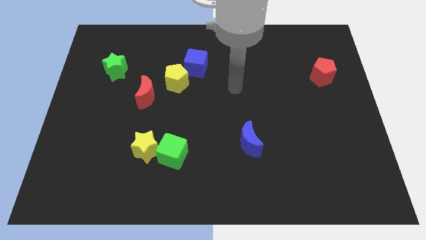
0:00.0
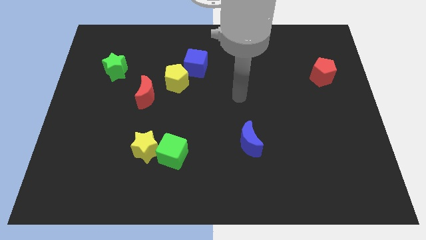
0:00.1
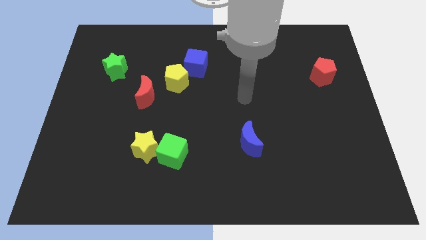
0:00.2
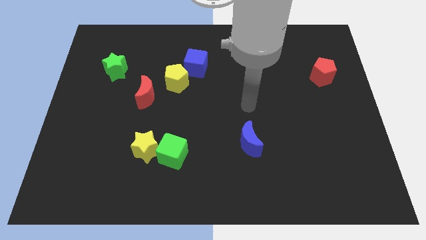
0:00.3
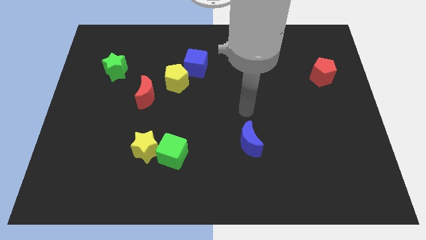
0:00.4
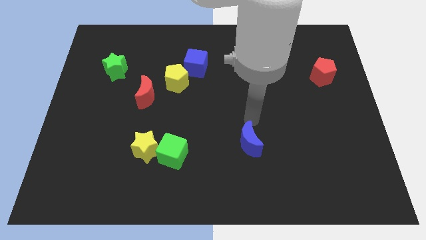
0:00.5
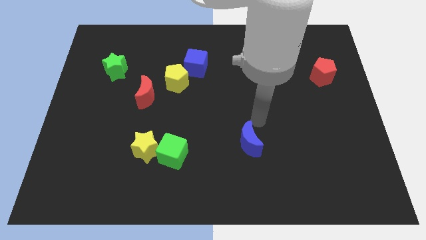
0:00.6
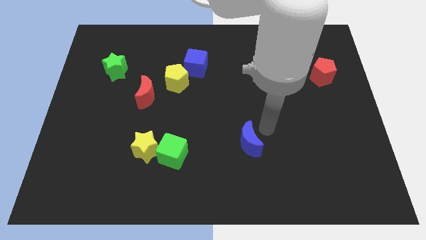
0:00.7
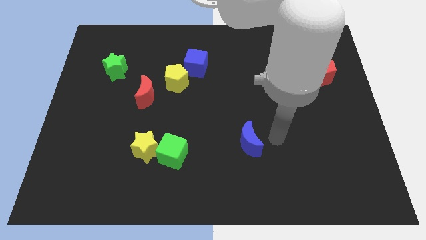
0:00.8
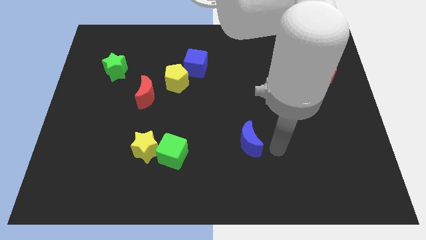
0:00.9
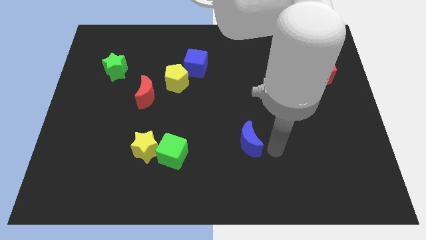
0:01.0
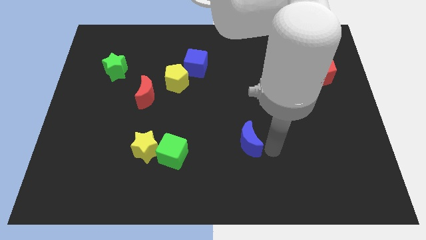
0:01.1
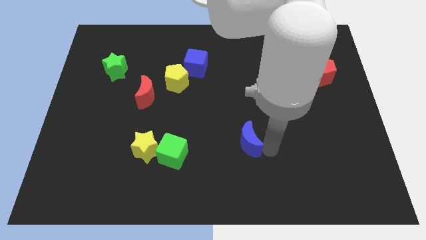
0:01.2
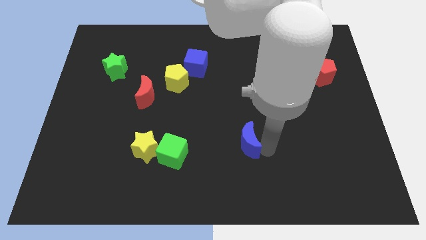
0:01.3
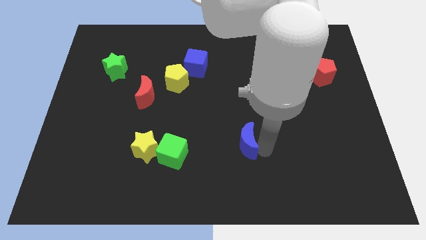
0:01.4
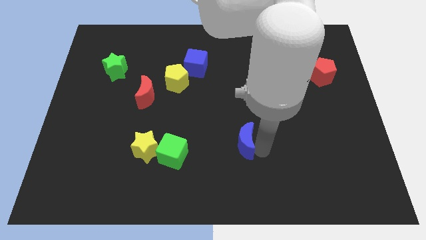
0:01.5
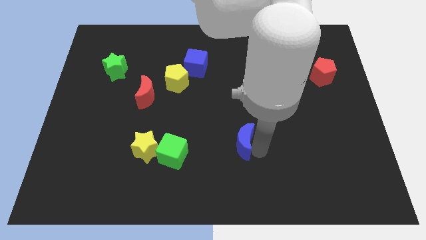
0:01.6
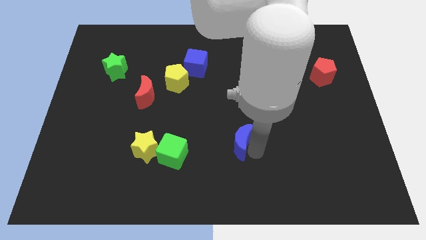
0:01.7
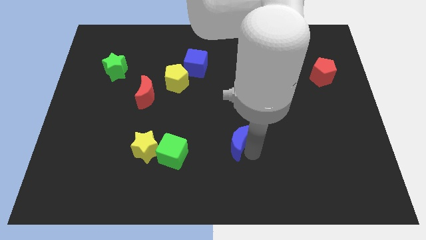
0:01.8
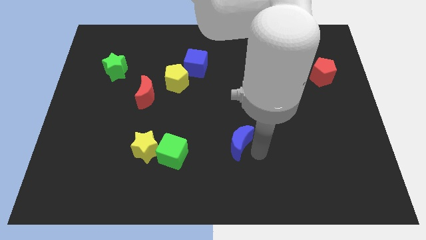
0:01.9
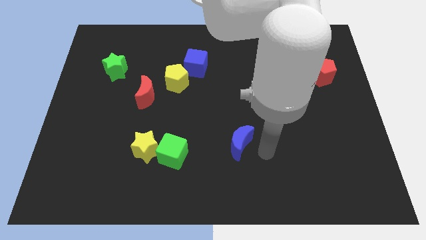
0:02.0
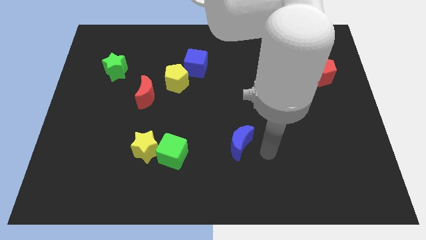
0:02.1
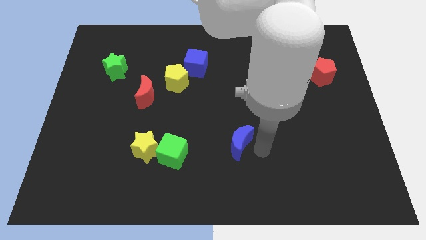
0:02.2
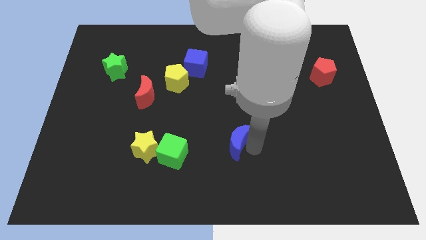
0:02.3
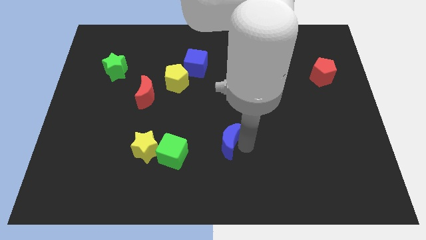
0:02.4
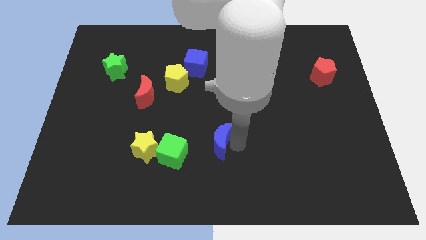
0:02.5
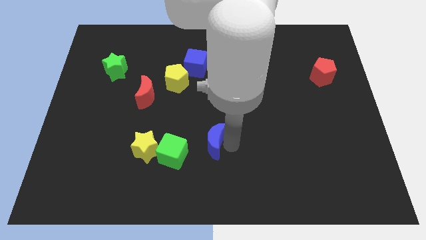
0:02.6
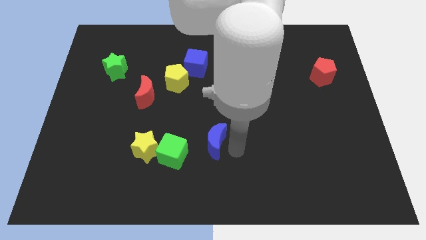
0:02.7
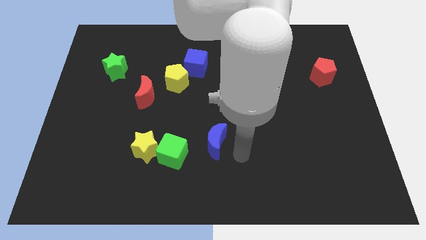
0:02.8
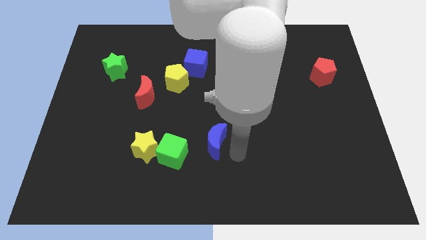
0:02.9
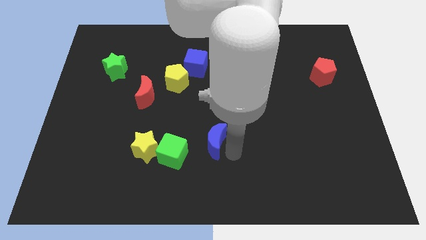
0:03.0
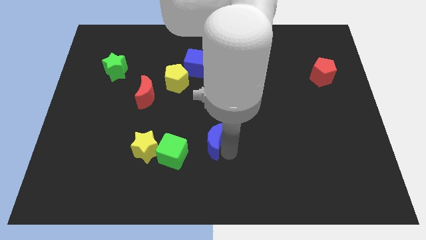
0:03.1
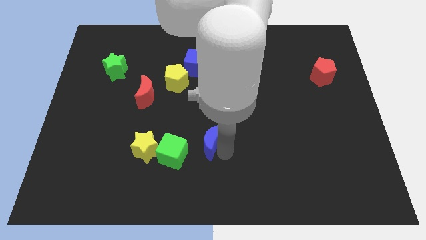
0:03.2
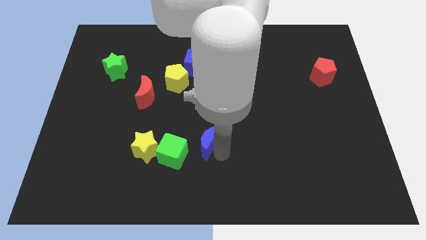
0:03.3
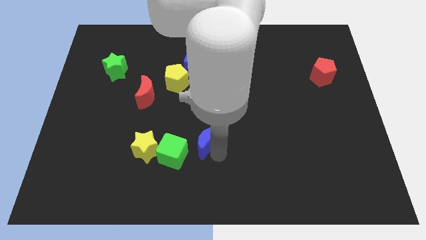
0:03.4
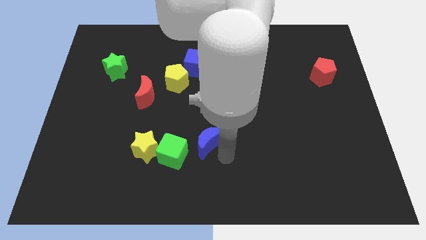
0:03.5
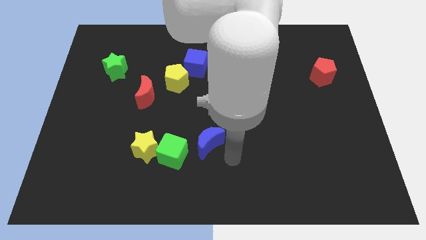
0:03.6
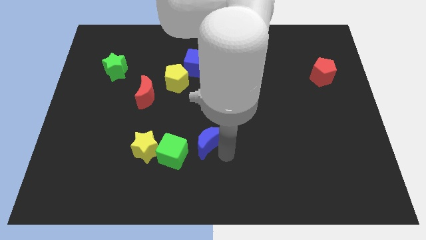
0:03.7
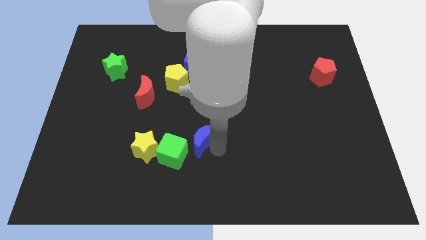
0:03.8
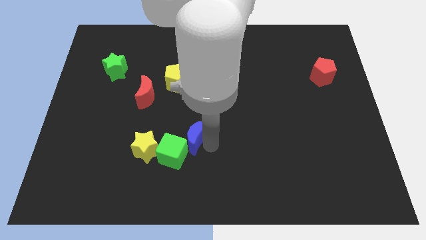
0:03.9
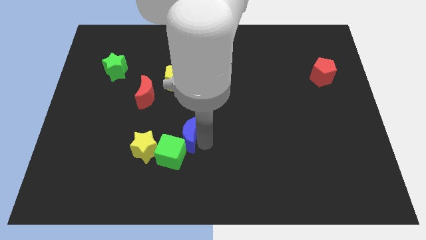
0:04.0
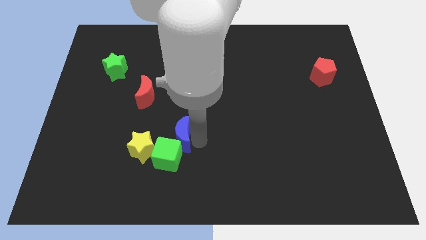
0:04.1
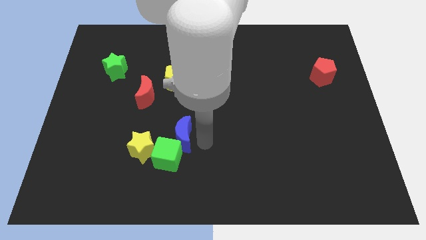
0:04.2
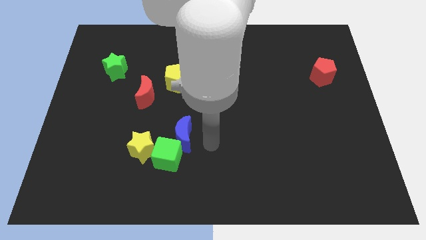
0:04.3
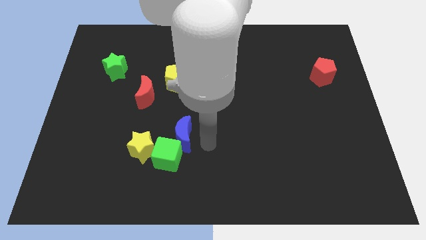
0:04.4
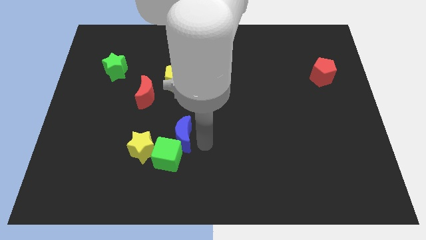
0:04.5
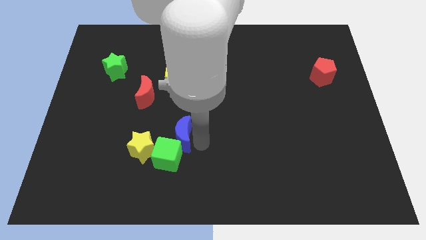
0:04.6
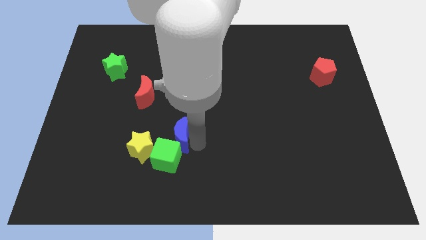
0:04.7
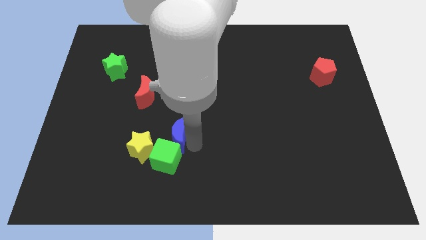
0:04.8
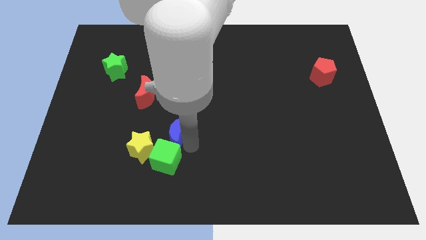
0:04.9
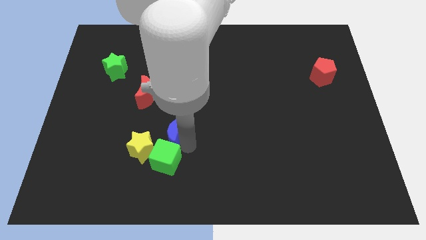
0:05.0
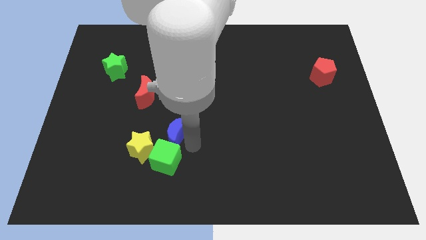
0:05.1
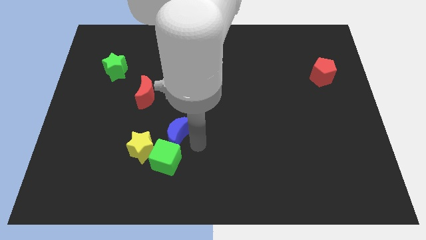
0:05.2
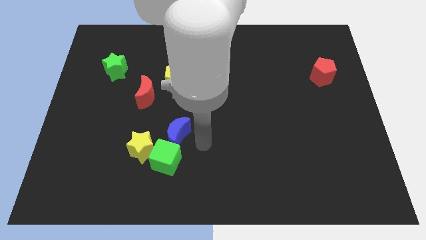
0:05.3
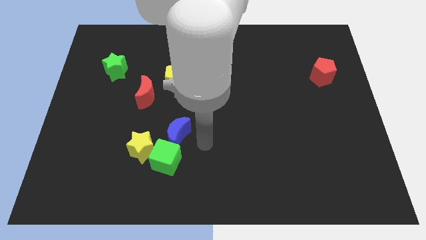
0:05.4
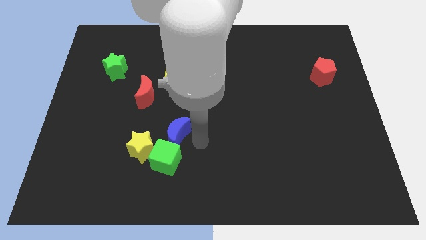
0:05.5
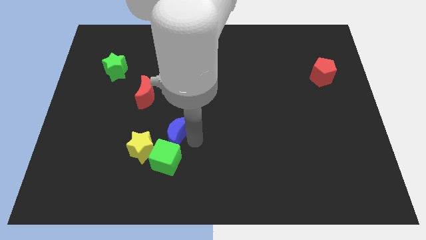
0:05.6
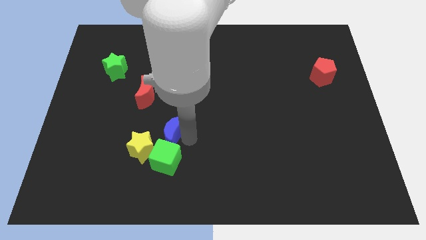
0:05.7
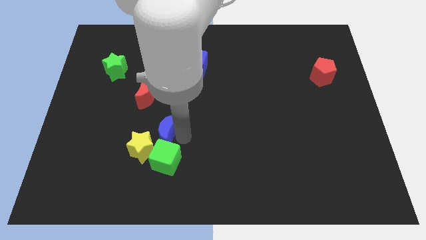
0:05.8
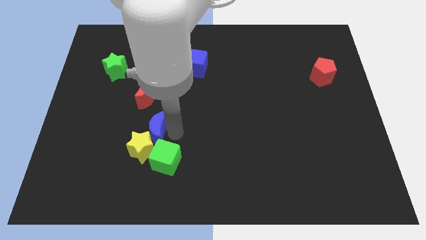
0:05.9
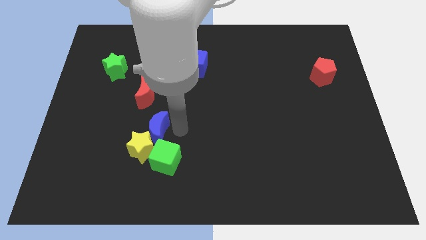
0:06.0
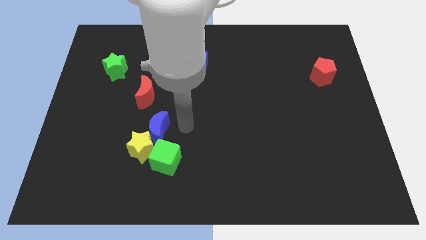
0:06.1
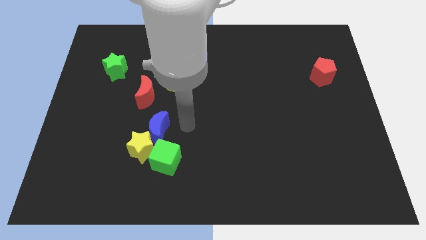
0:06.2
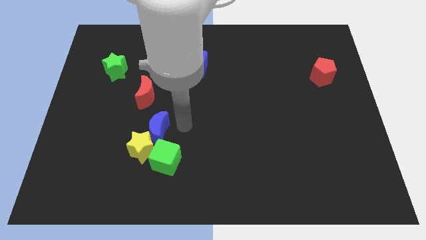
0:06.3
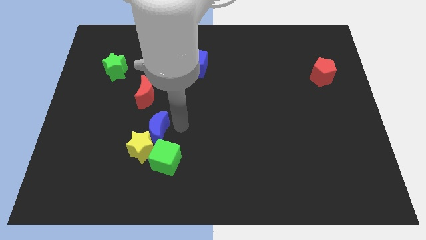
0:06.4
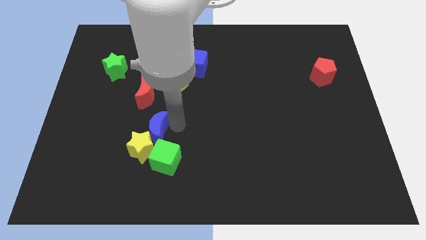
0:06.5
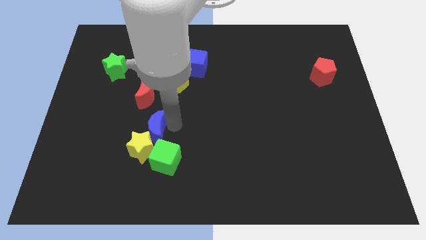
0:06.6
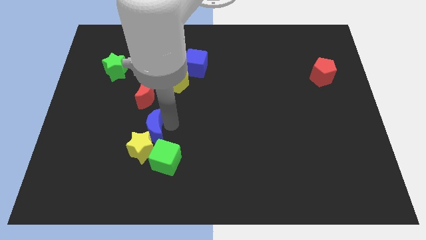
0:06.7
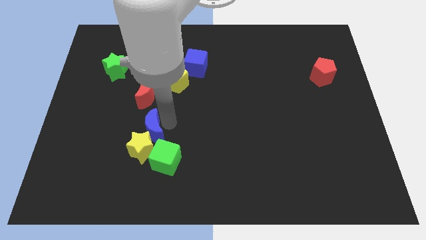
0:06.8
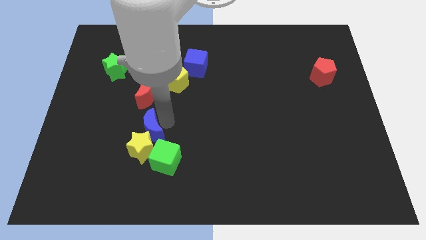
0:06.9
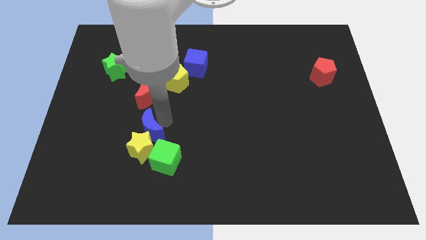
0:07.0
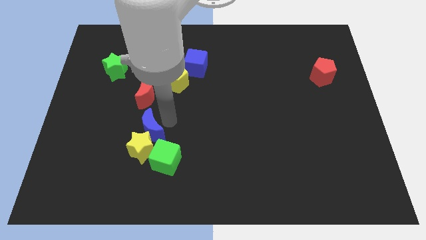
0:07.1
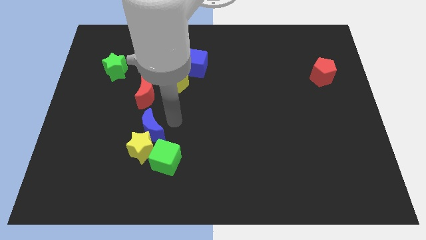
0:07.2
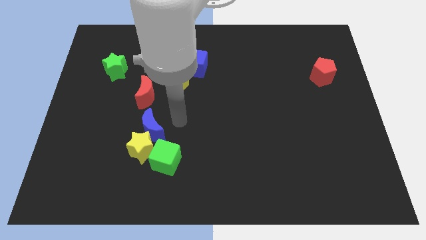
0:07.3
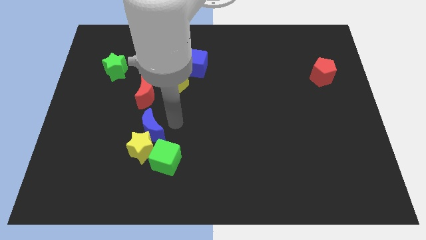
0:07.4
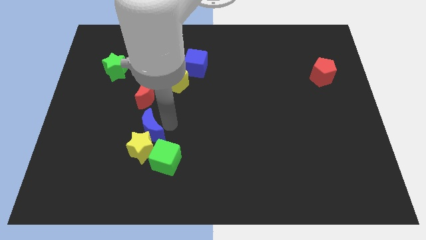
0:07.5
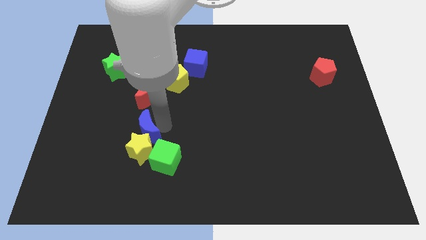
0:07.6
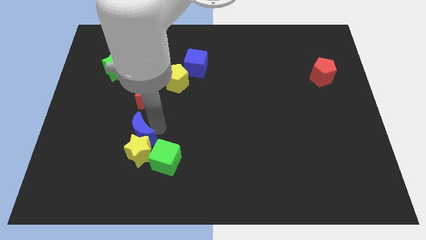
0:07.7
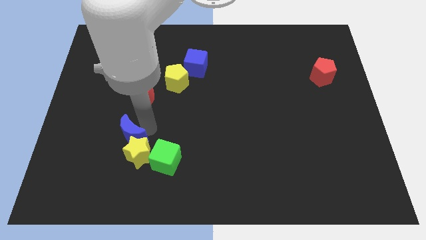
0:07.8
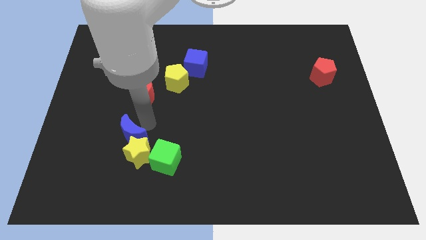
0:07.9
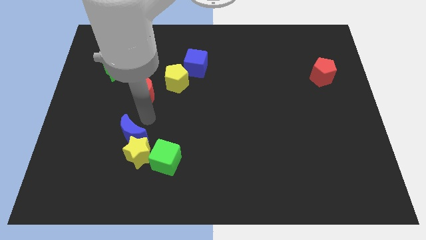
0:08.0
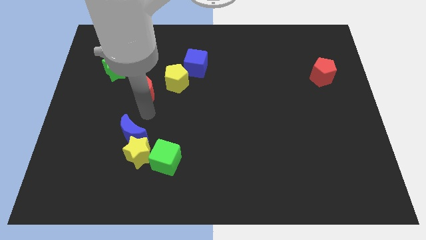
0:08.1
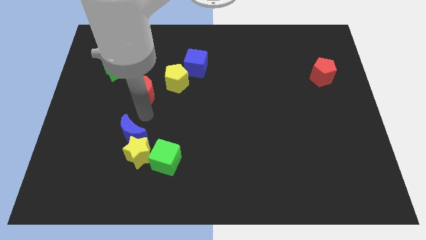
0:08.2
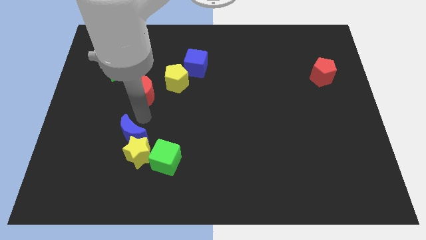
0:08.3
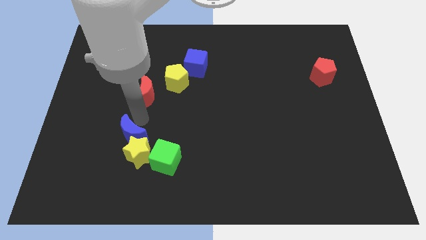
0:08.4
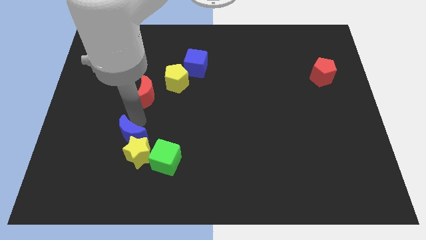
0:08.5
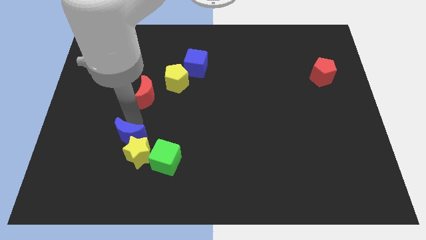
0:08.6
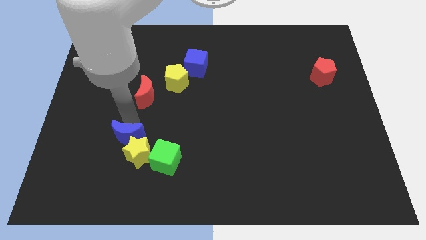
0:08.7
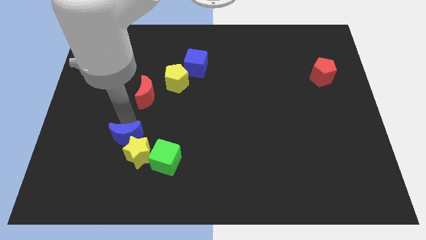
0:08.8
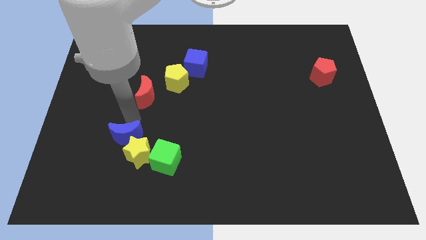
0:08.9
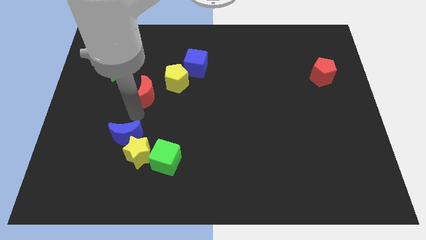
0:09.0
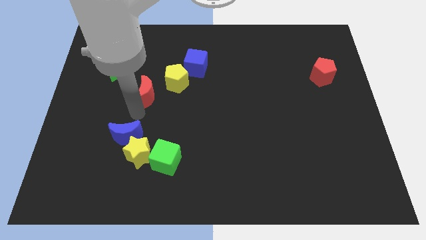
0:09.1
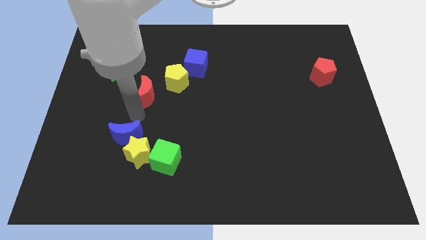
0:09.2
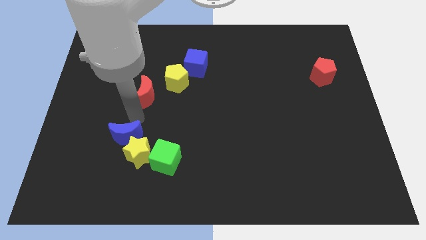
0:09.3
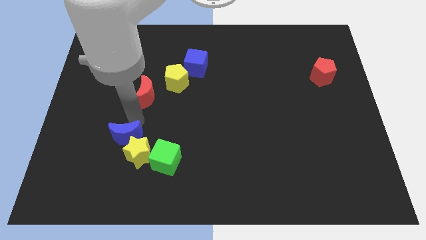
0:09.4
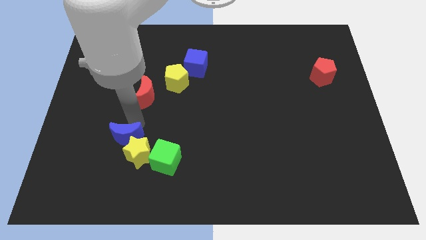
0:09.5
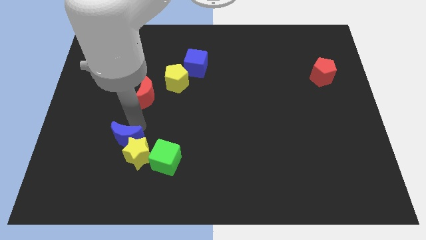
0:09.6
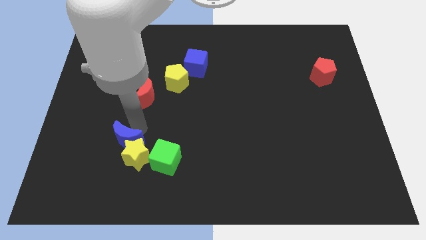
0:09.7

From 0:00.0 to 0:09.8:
put the blue moon just left of the green cube
